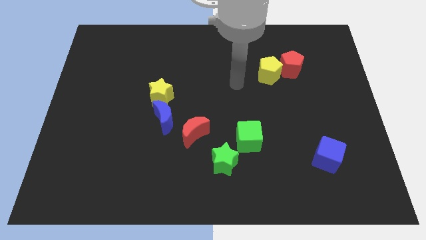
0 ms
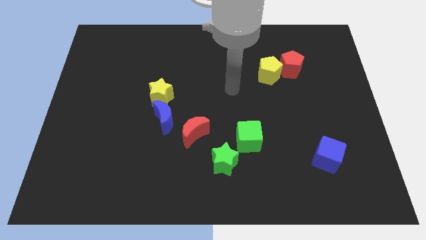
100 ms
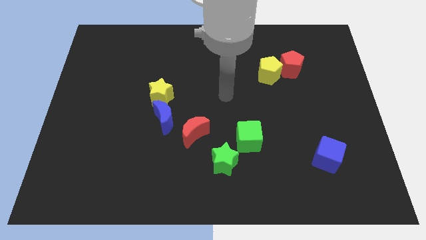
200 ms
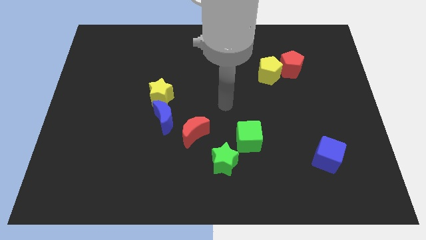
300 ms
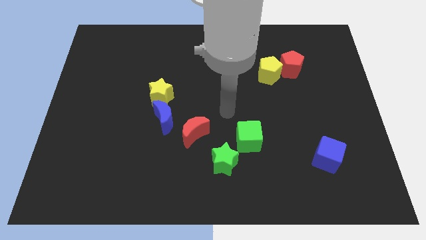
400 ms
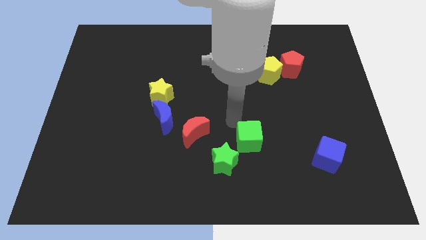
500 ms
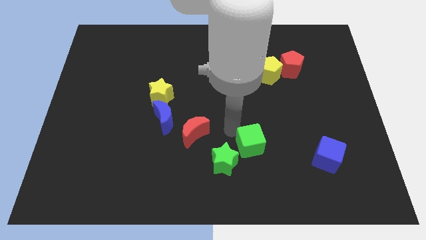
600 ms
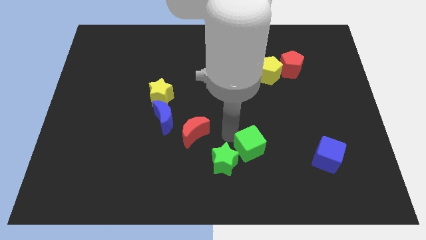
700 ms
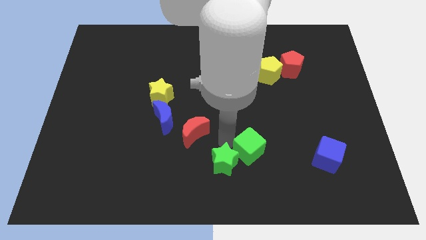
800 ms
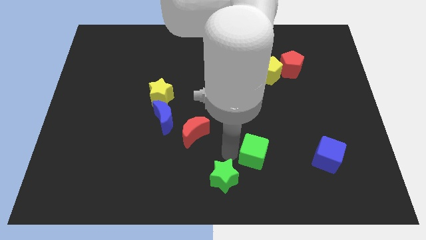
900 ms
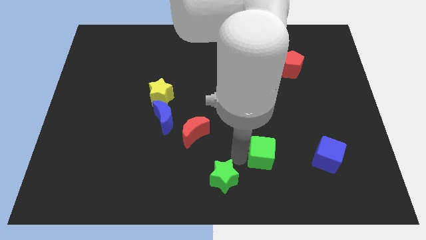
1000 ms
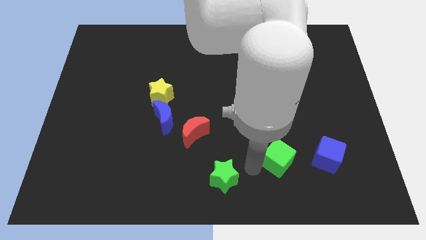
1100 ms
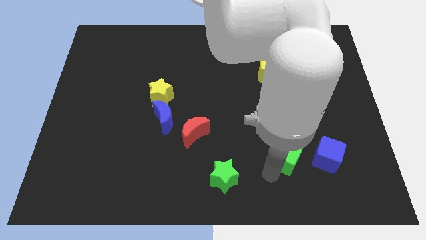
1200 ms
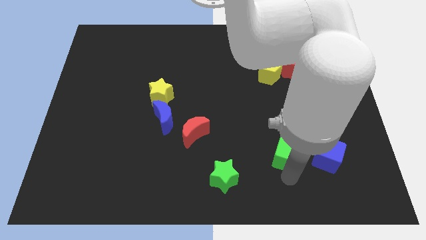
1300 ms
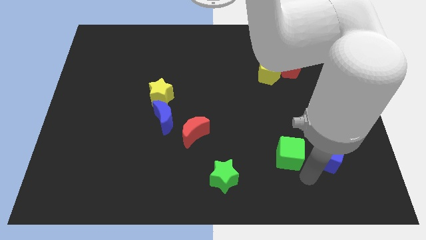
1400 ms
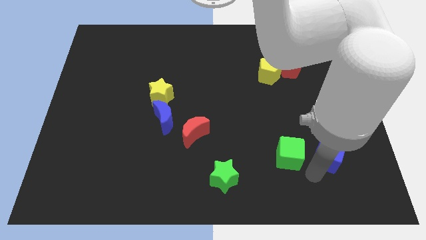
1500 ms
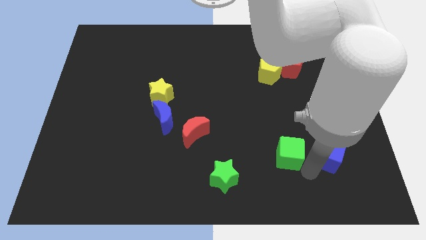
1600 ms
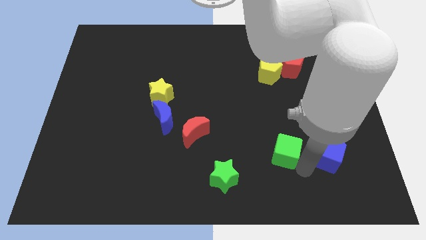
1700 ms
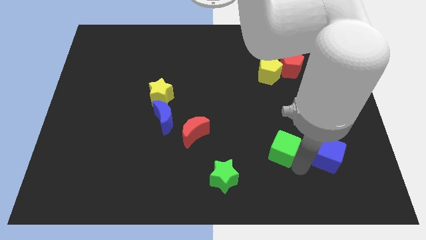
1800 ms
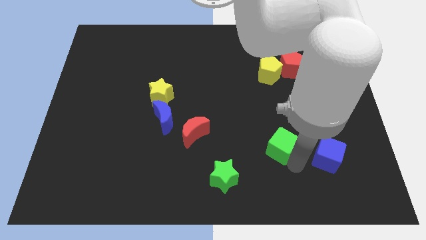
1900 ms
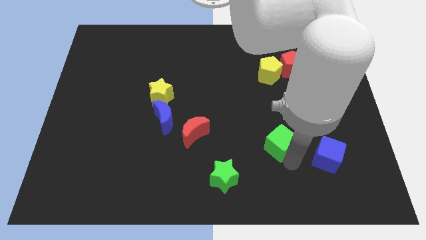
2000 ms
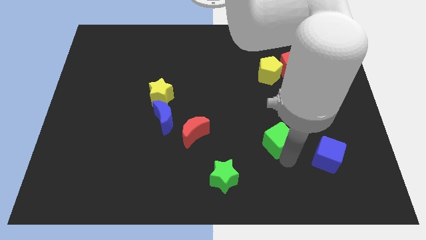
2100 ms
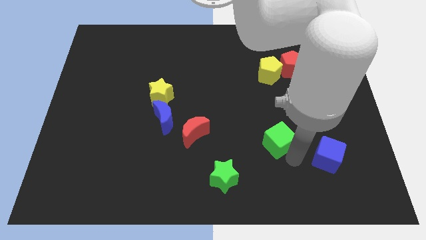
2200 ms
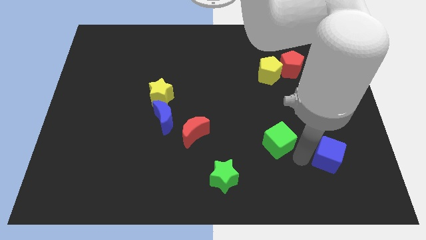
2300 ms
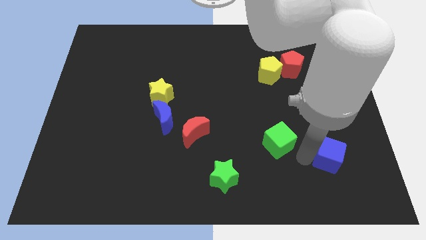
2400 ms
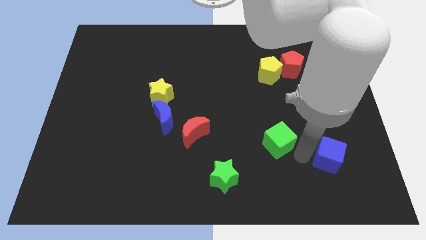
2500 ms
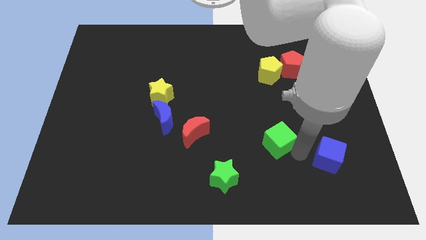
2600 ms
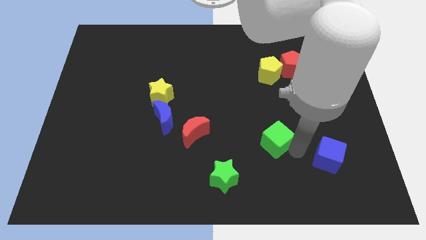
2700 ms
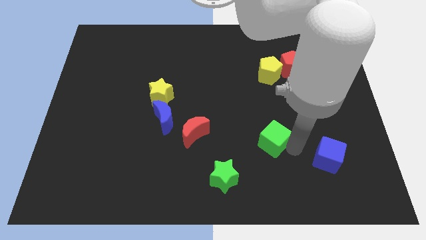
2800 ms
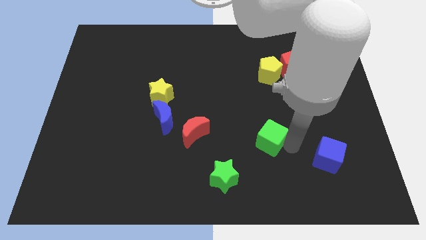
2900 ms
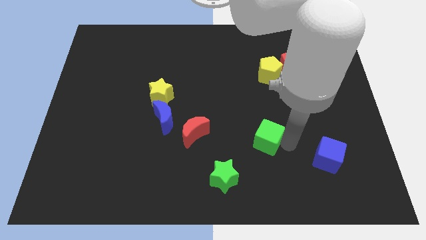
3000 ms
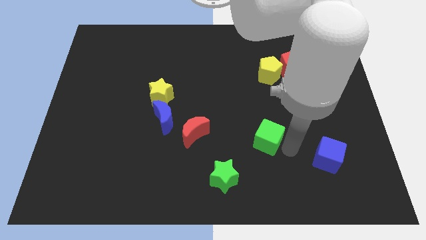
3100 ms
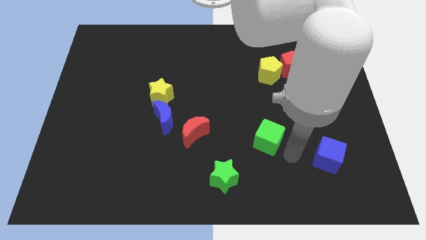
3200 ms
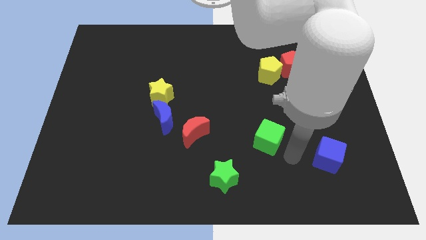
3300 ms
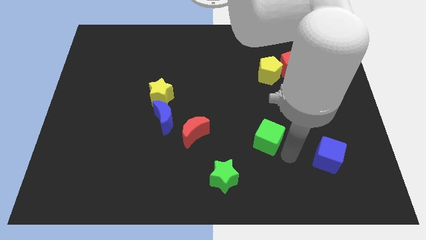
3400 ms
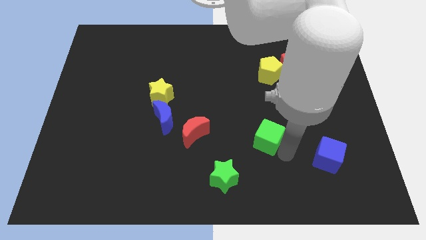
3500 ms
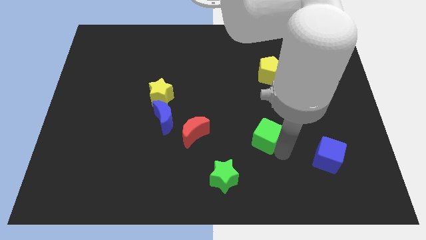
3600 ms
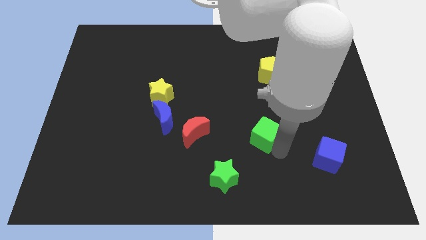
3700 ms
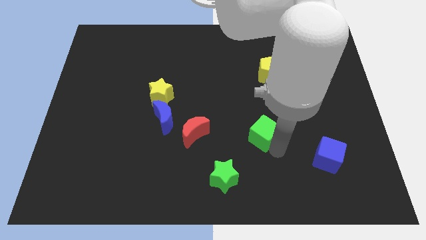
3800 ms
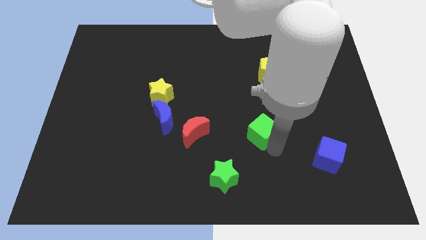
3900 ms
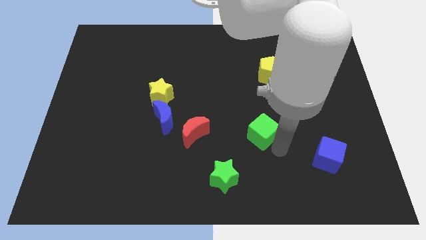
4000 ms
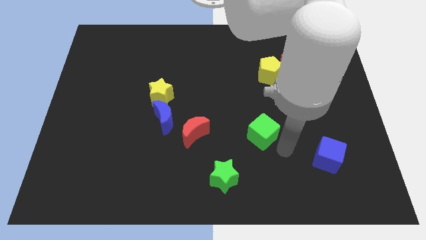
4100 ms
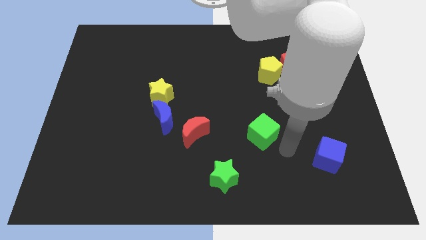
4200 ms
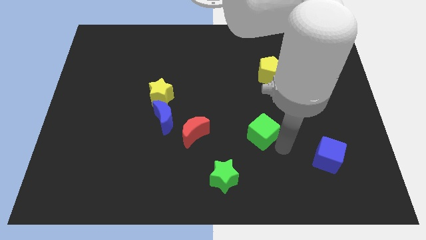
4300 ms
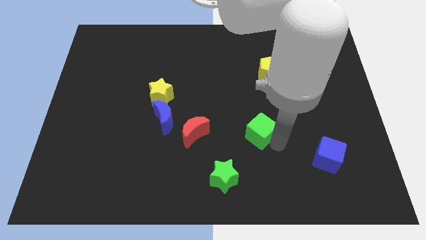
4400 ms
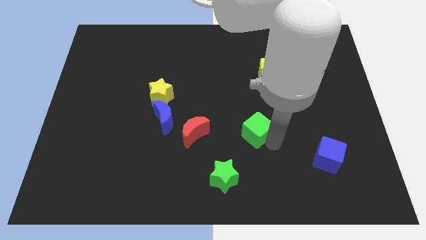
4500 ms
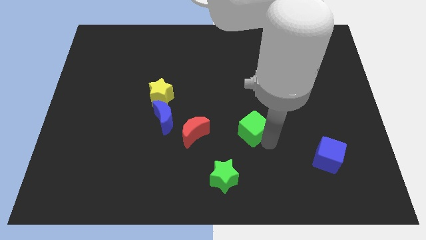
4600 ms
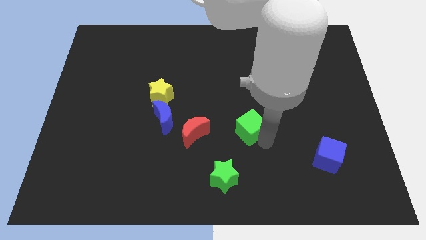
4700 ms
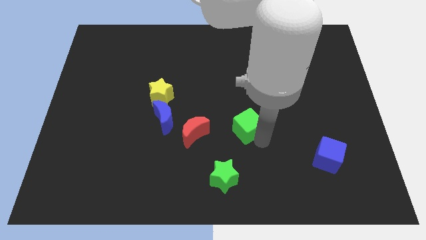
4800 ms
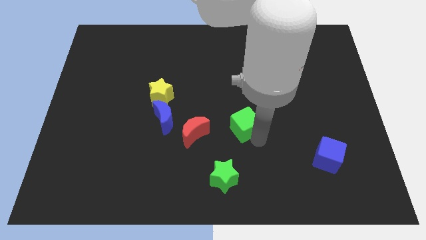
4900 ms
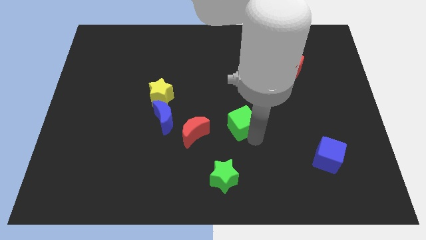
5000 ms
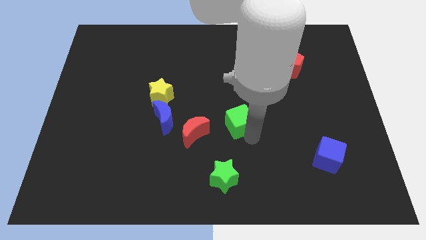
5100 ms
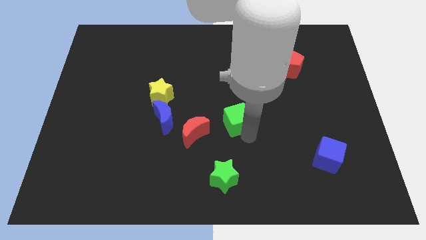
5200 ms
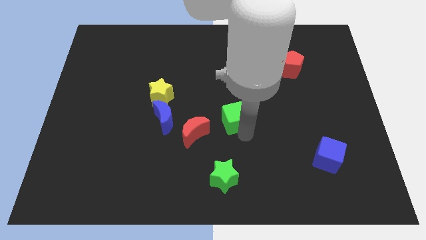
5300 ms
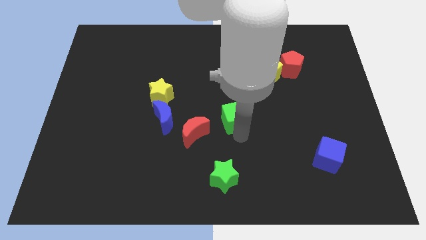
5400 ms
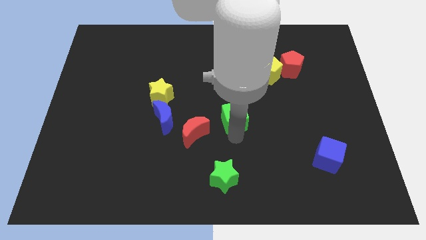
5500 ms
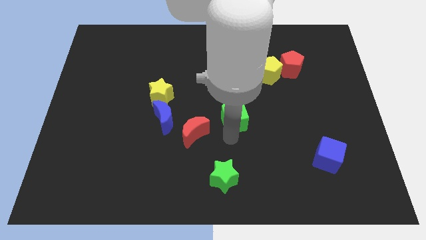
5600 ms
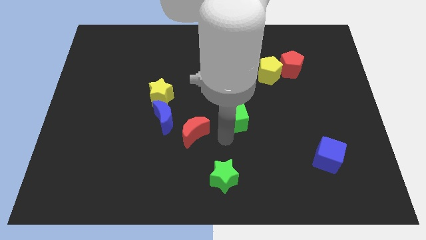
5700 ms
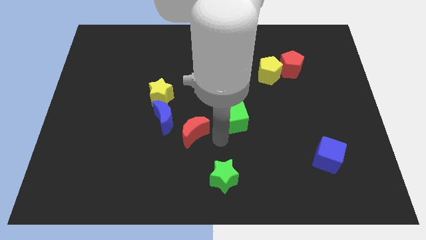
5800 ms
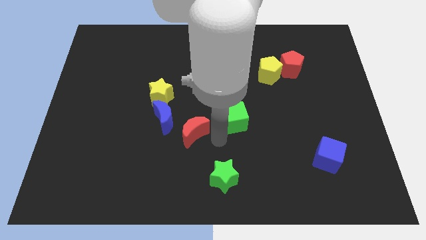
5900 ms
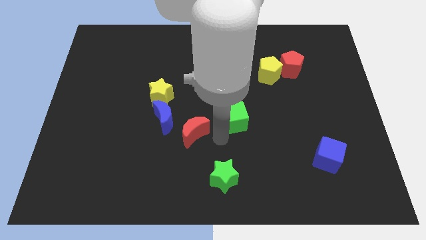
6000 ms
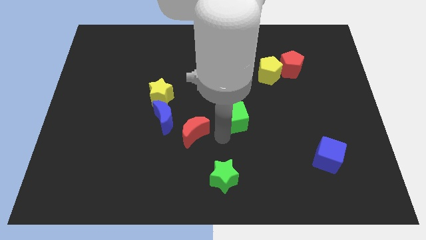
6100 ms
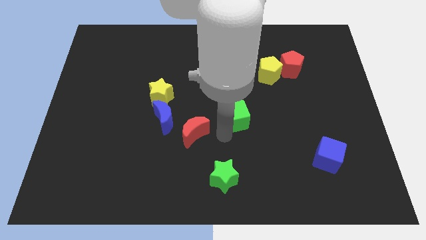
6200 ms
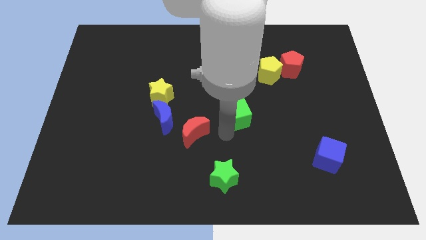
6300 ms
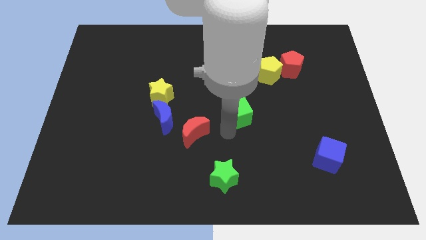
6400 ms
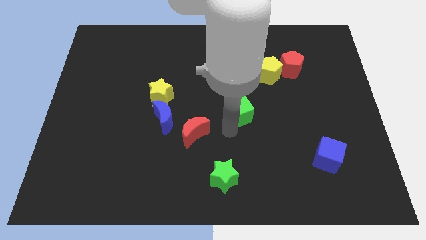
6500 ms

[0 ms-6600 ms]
move the green cube up a little bit

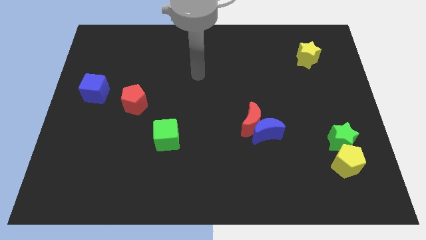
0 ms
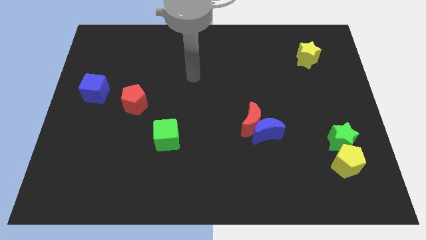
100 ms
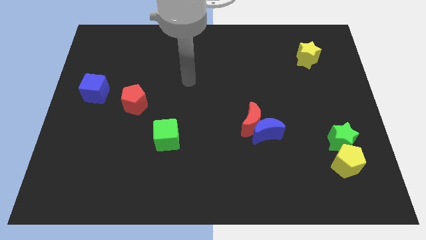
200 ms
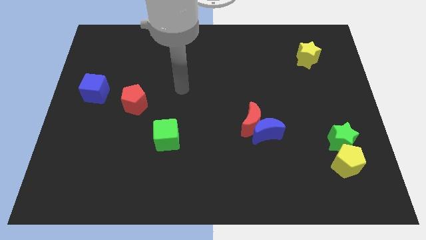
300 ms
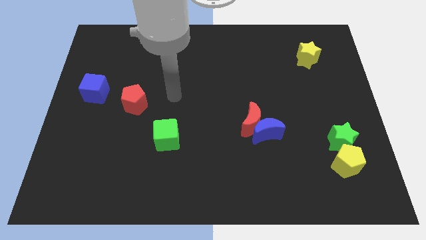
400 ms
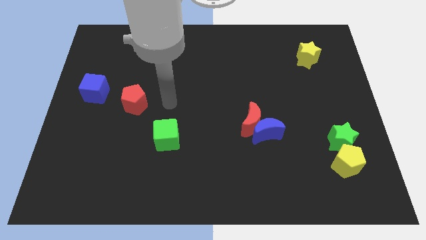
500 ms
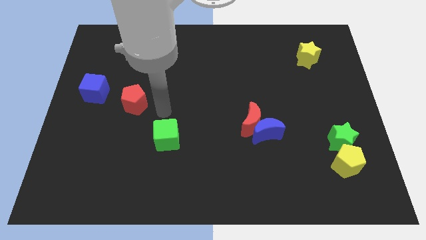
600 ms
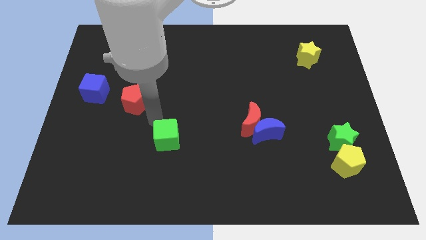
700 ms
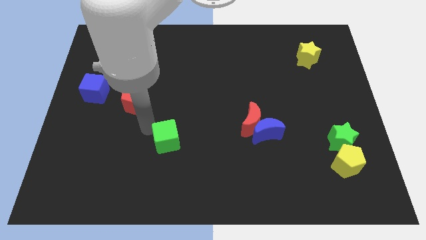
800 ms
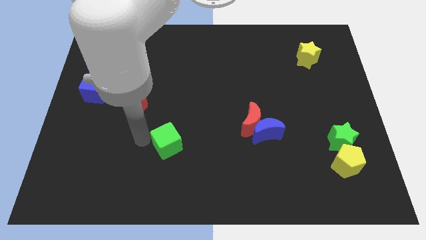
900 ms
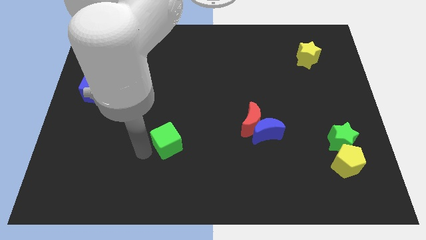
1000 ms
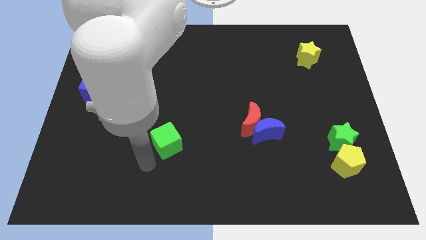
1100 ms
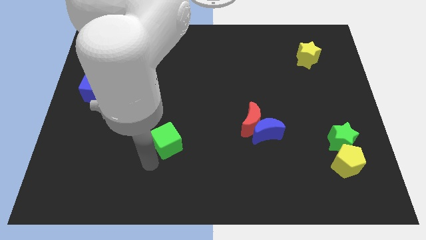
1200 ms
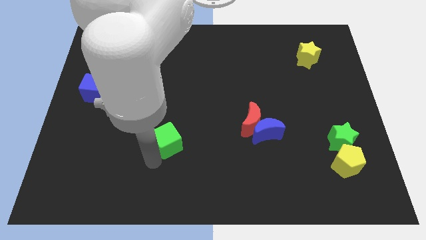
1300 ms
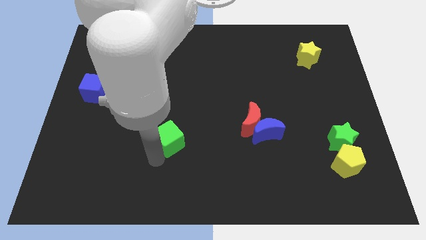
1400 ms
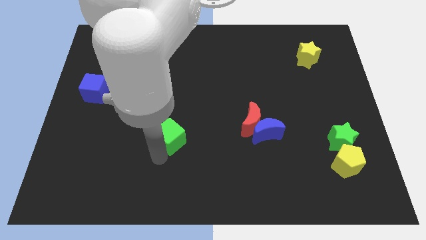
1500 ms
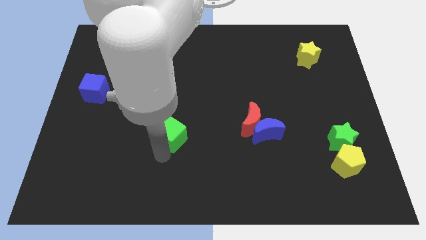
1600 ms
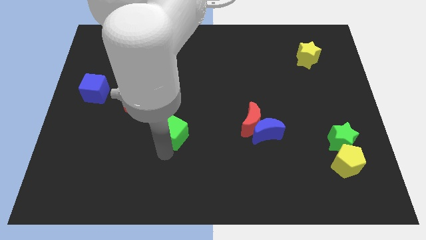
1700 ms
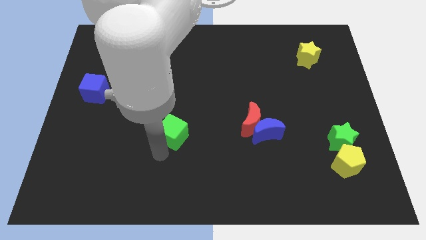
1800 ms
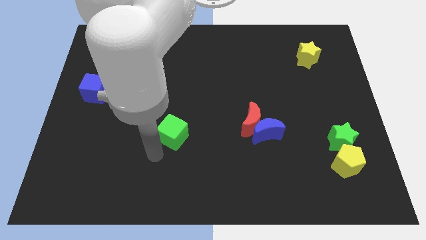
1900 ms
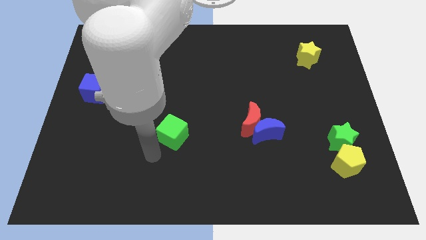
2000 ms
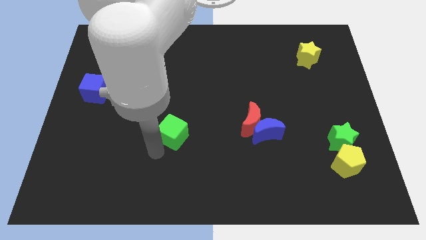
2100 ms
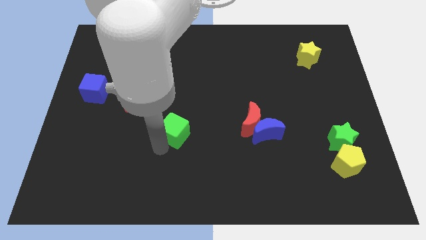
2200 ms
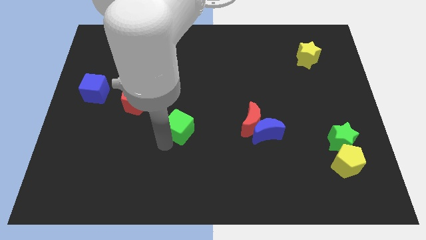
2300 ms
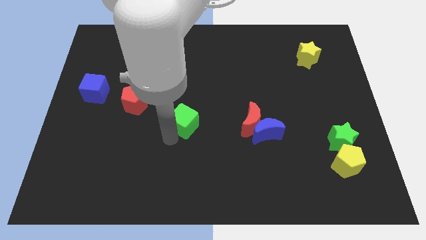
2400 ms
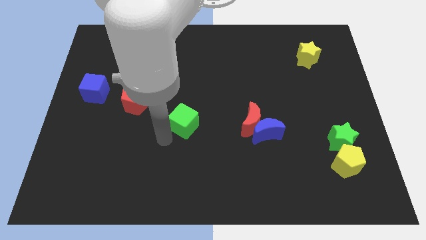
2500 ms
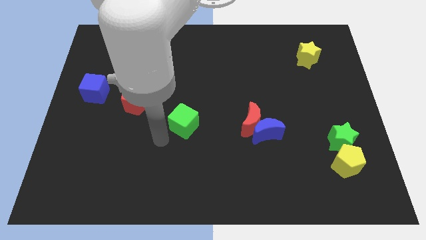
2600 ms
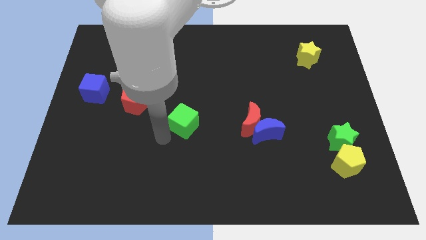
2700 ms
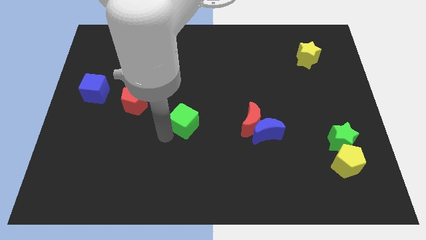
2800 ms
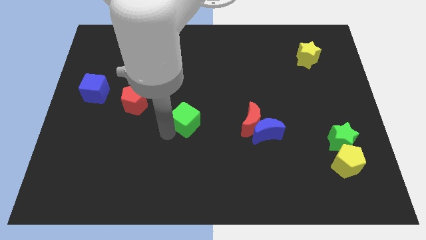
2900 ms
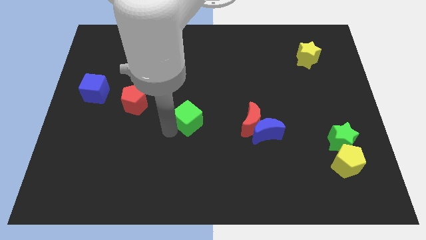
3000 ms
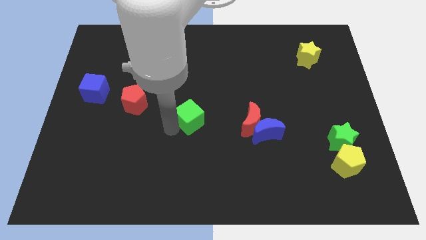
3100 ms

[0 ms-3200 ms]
move the green cube a bit upwards and right diagonally
